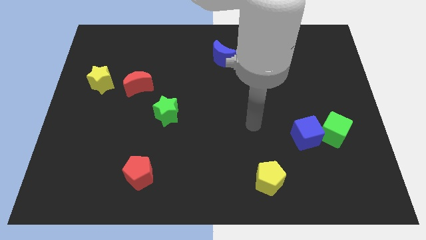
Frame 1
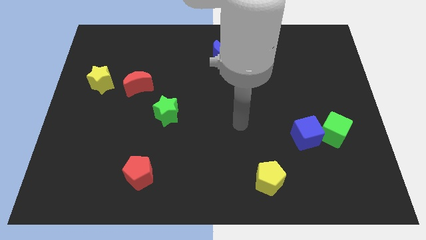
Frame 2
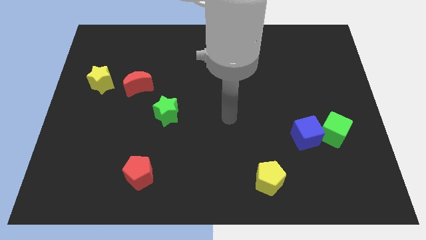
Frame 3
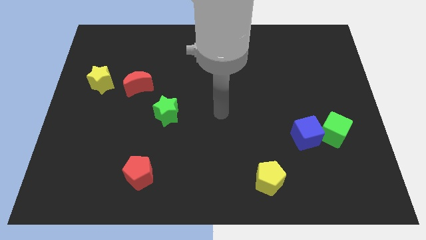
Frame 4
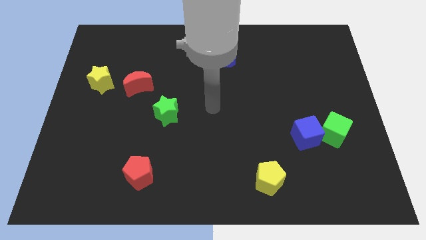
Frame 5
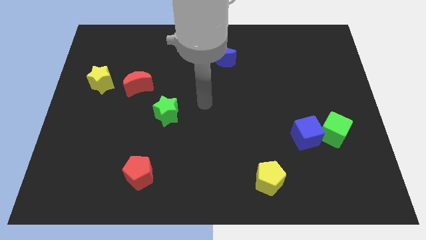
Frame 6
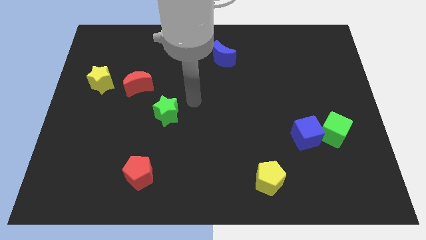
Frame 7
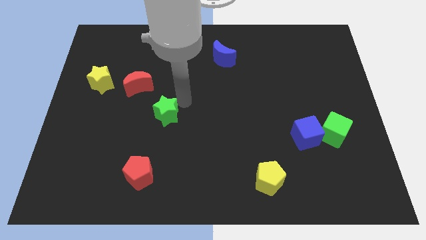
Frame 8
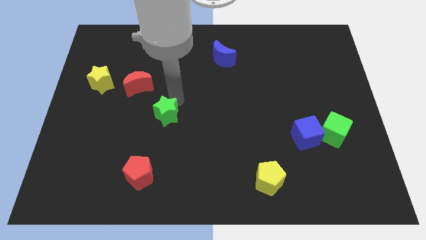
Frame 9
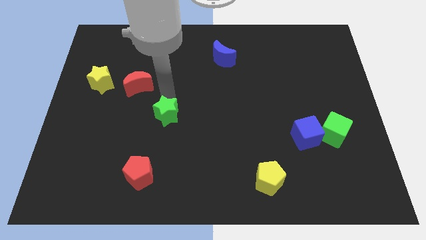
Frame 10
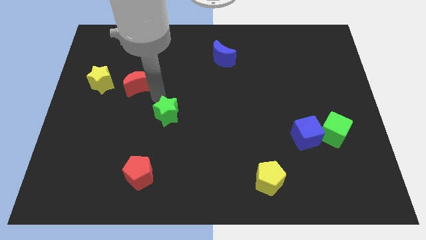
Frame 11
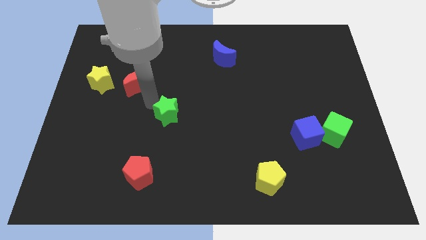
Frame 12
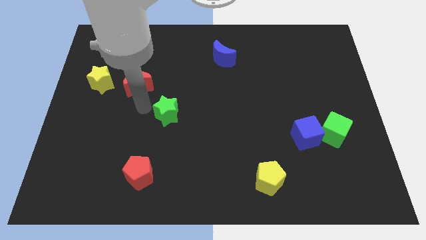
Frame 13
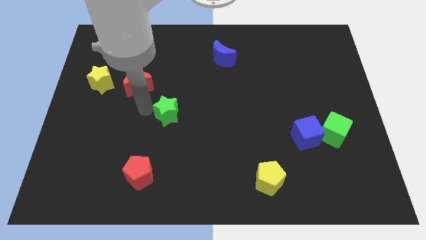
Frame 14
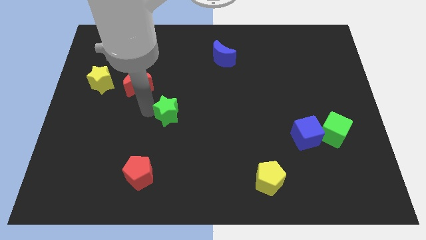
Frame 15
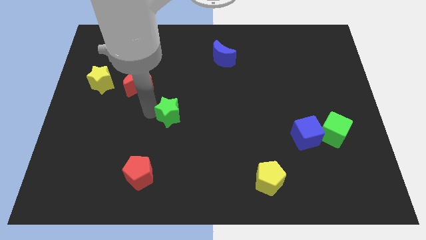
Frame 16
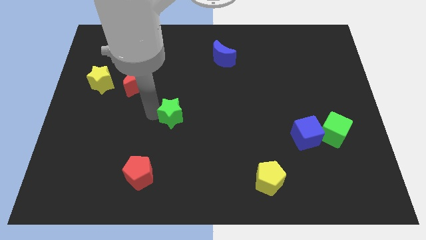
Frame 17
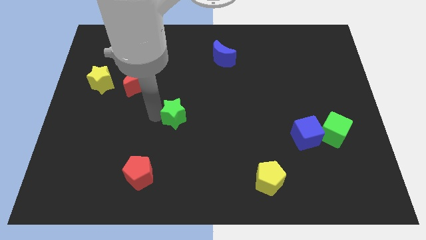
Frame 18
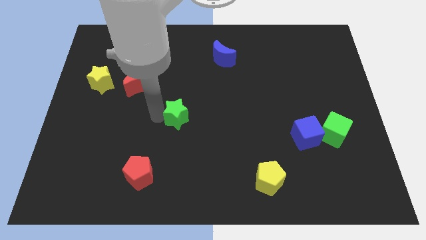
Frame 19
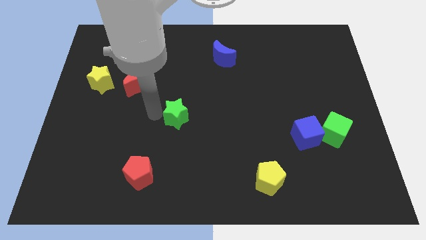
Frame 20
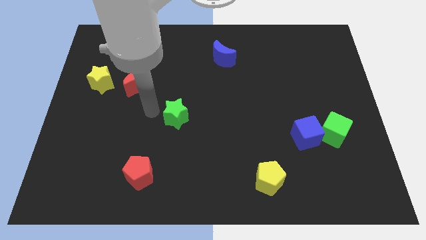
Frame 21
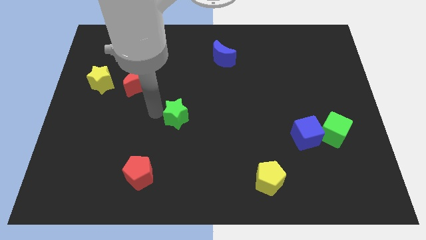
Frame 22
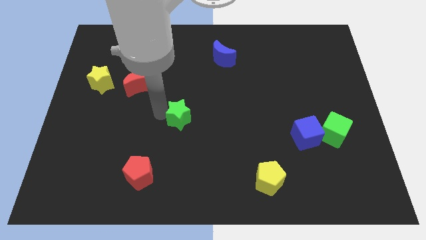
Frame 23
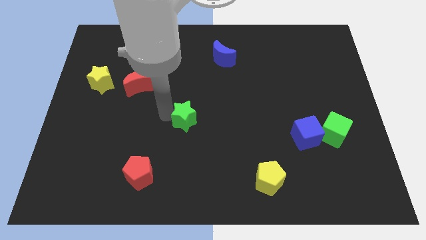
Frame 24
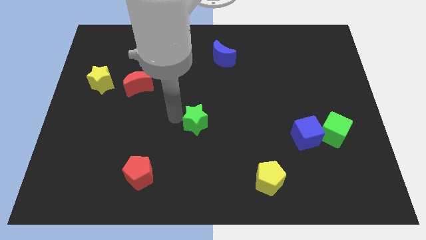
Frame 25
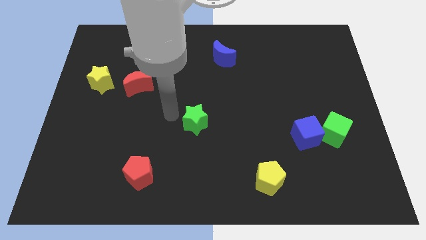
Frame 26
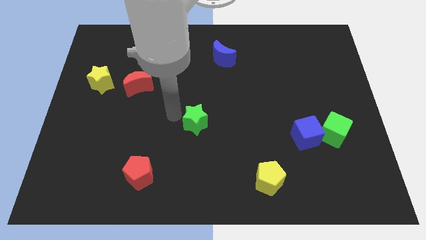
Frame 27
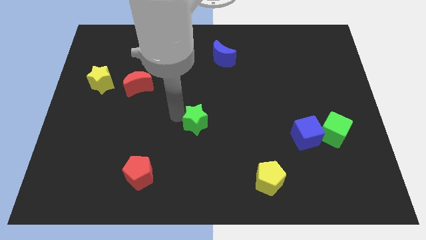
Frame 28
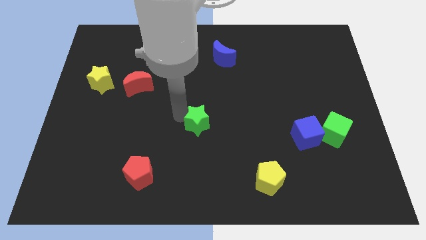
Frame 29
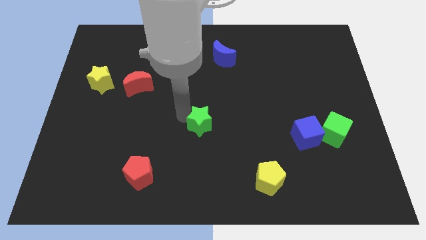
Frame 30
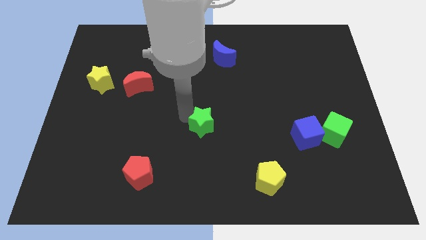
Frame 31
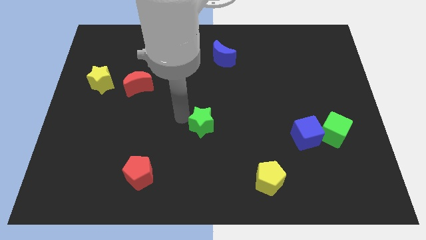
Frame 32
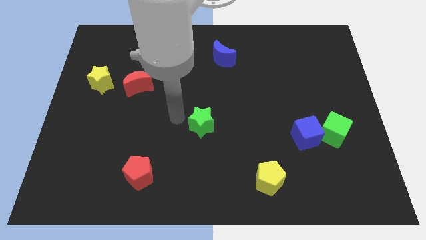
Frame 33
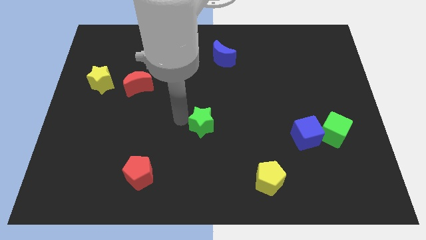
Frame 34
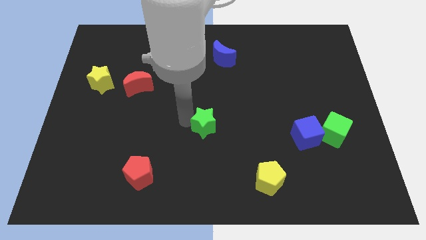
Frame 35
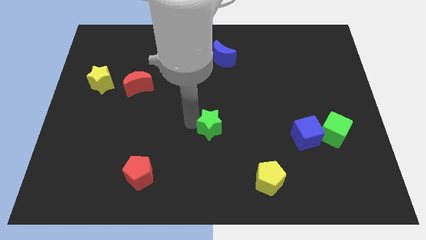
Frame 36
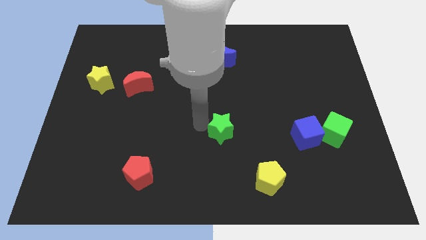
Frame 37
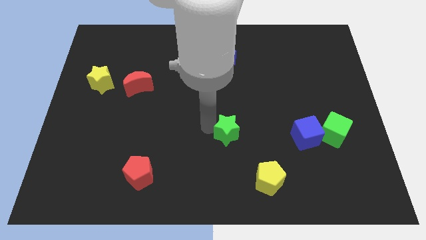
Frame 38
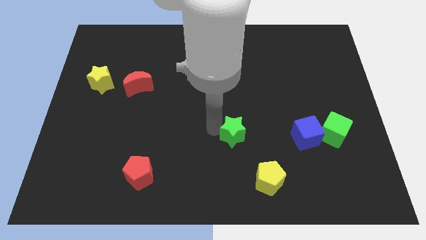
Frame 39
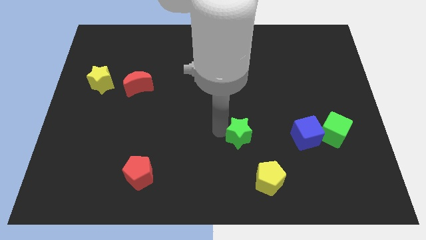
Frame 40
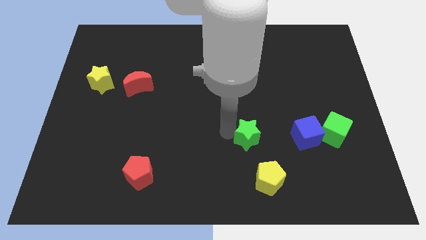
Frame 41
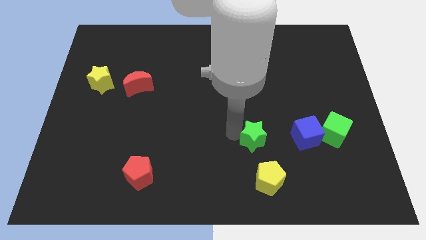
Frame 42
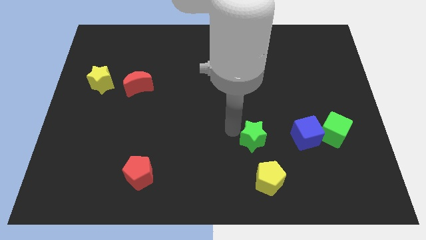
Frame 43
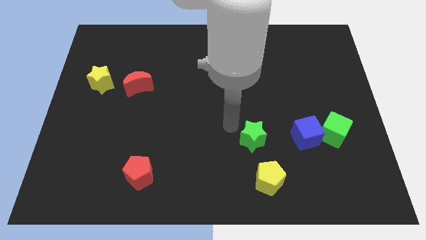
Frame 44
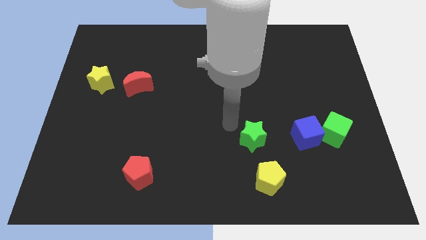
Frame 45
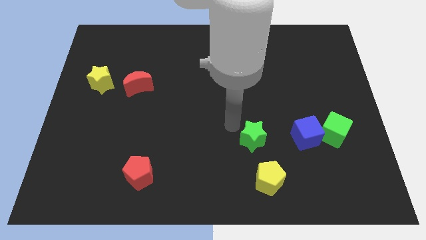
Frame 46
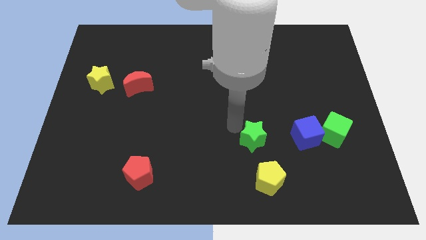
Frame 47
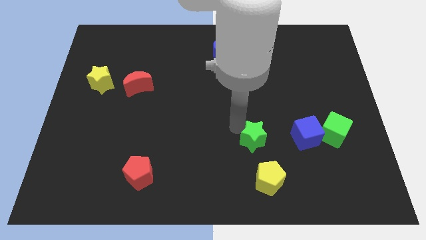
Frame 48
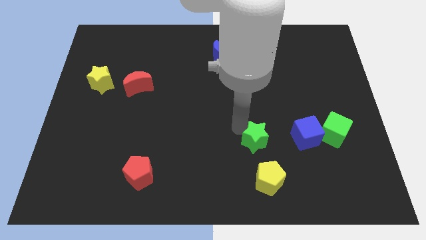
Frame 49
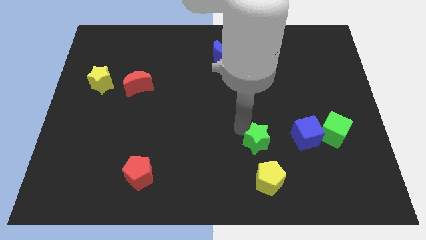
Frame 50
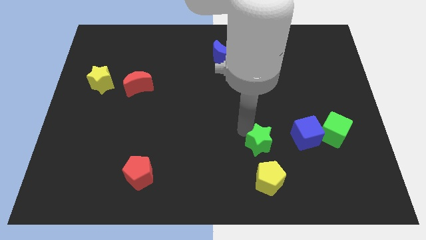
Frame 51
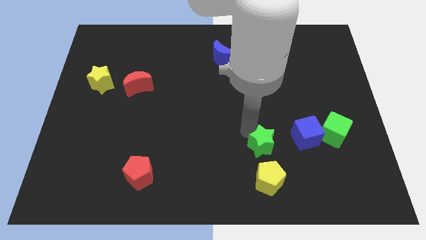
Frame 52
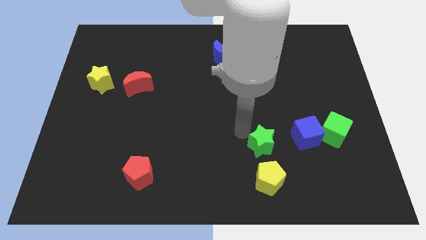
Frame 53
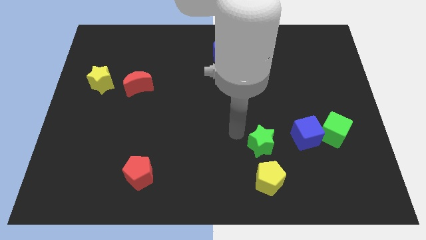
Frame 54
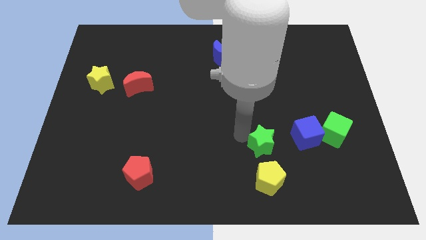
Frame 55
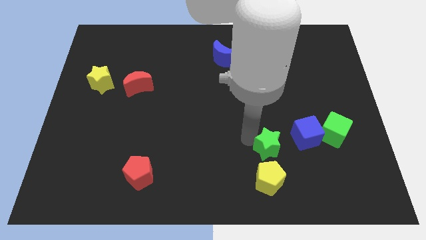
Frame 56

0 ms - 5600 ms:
put the green star to the bottom left side of the blue cube

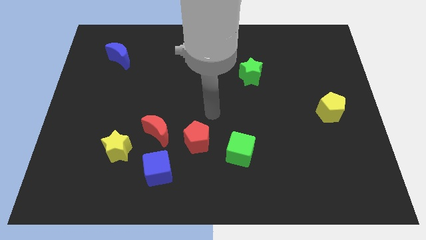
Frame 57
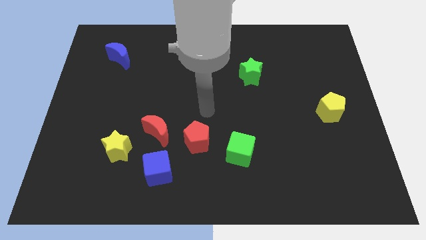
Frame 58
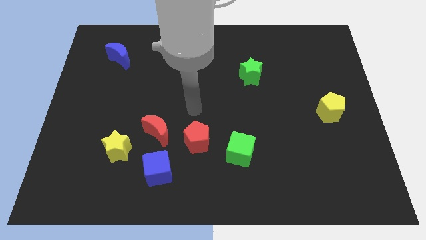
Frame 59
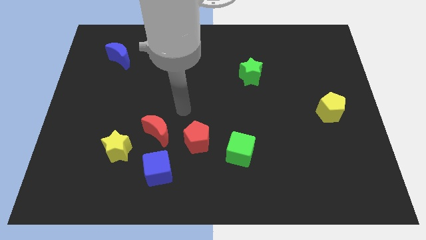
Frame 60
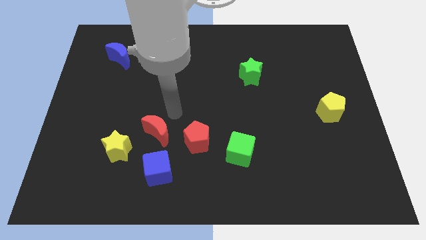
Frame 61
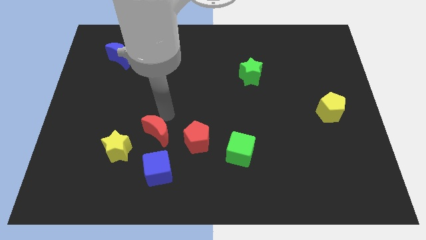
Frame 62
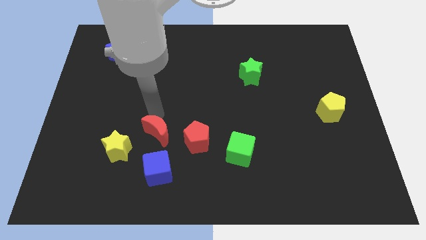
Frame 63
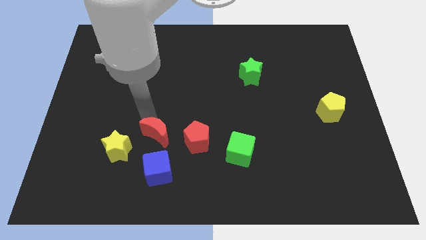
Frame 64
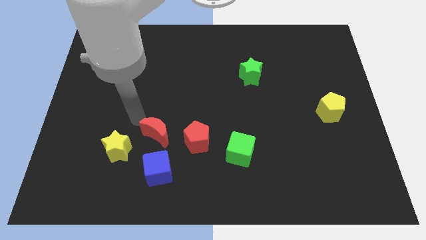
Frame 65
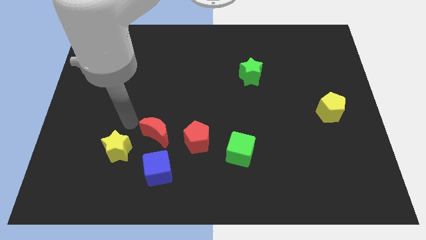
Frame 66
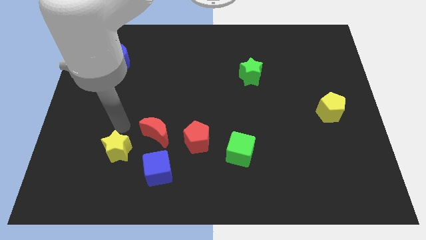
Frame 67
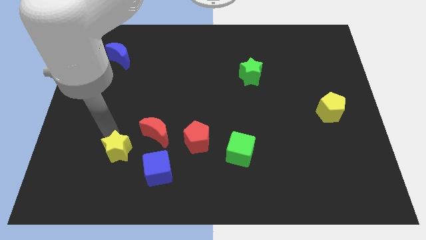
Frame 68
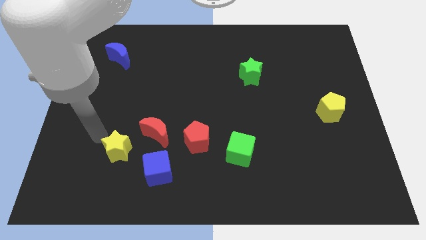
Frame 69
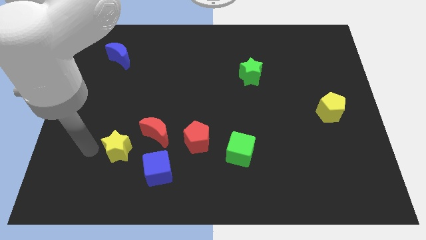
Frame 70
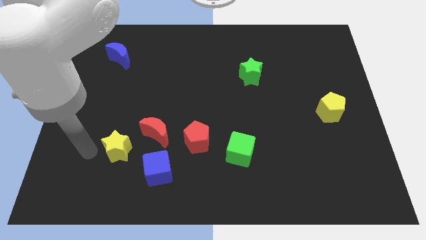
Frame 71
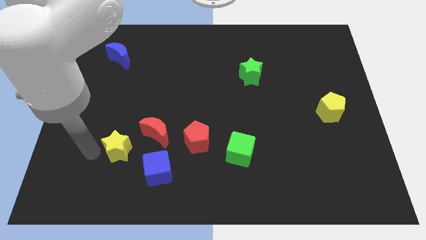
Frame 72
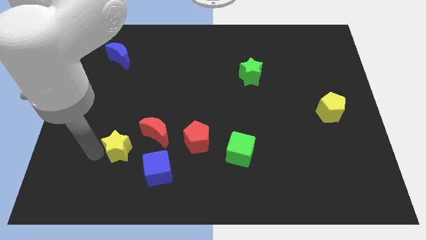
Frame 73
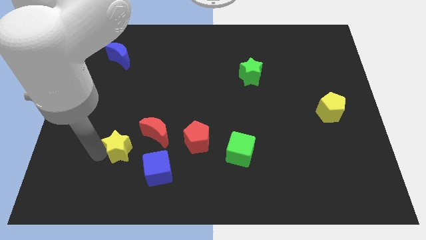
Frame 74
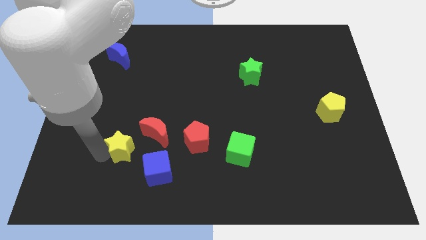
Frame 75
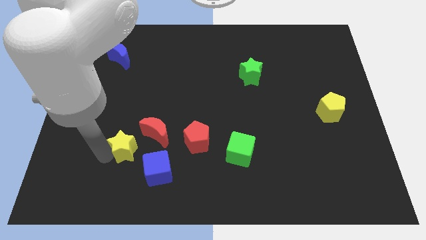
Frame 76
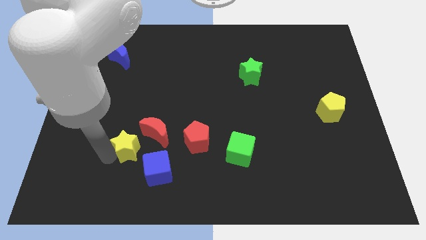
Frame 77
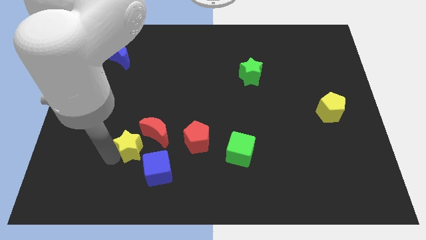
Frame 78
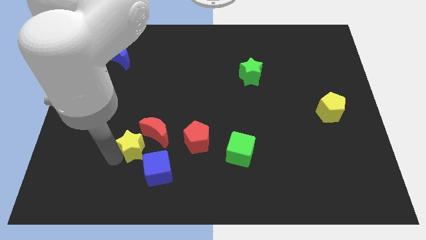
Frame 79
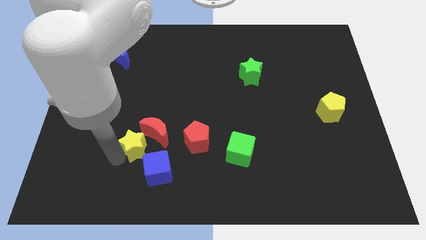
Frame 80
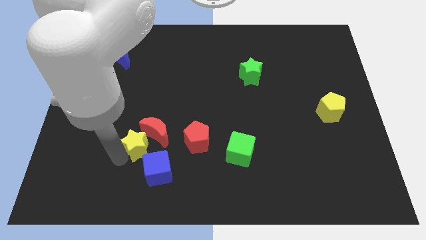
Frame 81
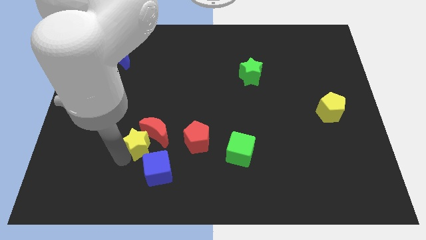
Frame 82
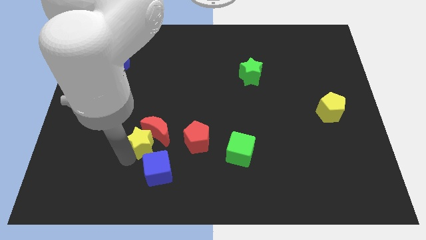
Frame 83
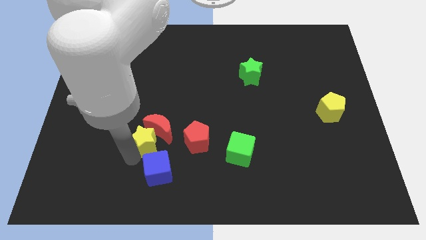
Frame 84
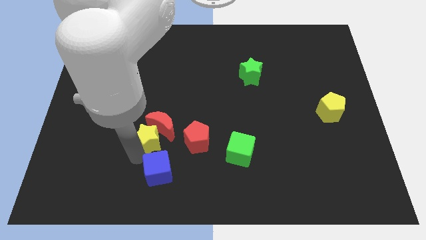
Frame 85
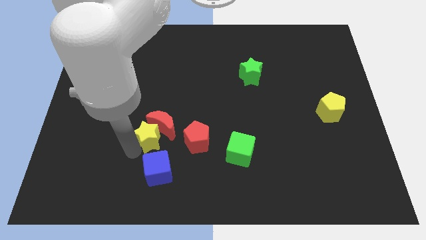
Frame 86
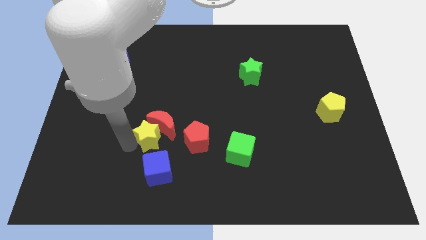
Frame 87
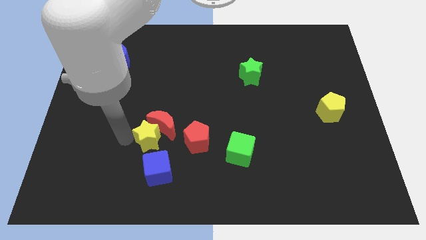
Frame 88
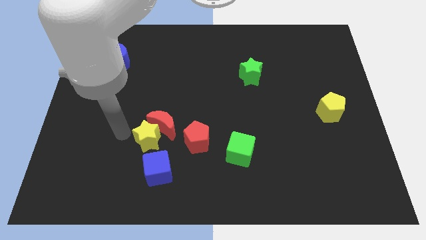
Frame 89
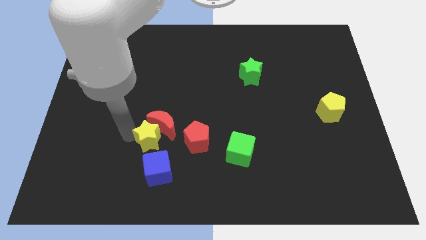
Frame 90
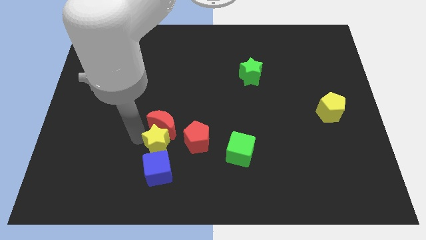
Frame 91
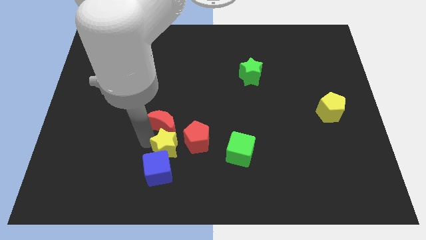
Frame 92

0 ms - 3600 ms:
move the yellow star to the left side of the green cube
